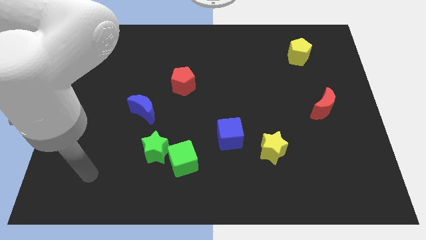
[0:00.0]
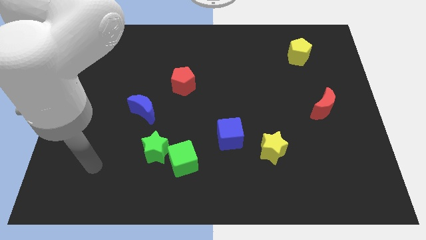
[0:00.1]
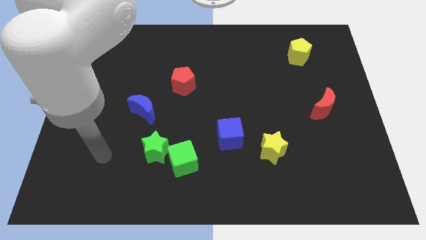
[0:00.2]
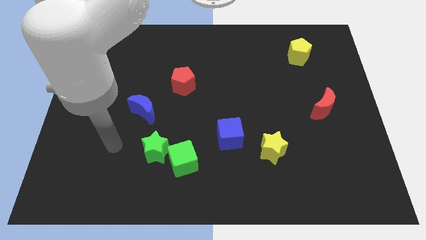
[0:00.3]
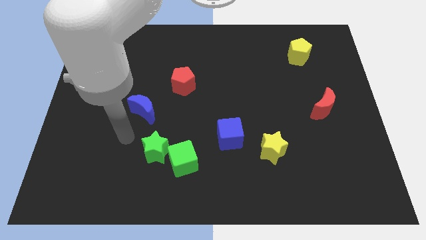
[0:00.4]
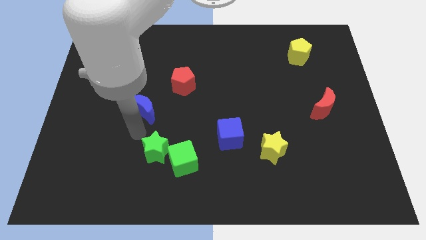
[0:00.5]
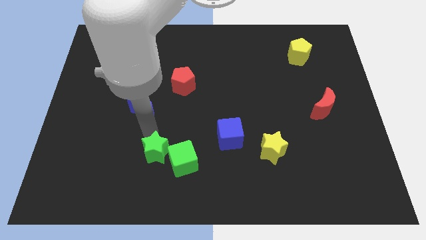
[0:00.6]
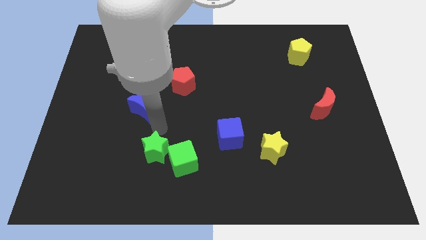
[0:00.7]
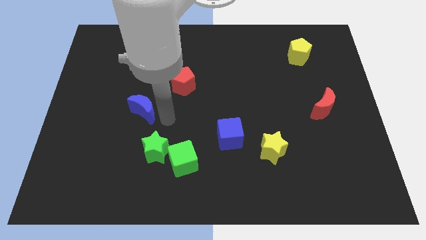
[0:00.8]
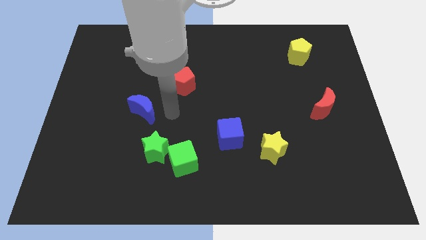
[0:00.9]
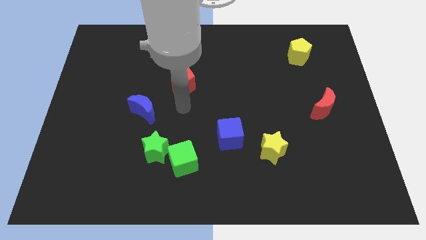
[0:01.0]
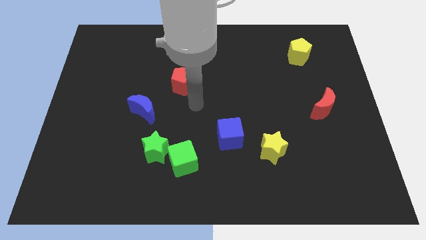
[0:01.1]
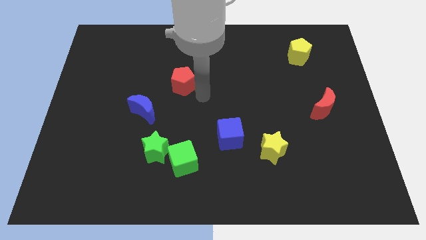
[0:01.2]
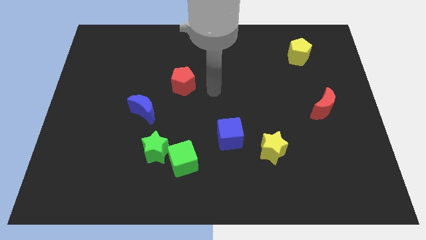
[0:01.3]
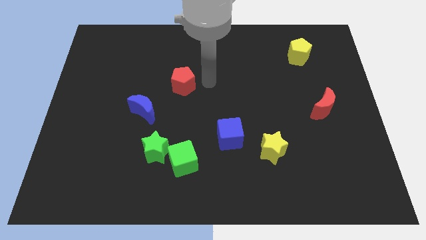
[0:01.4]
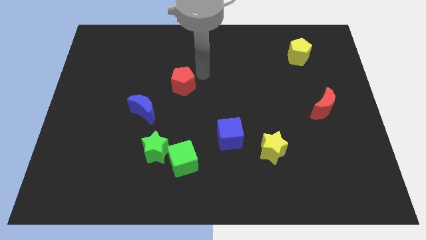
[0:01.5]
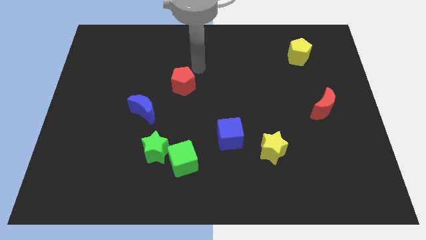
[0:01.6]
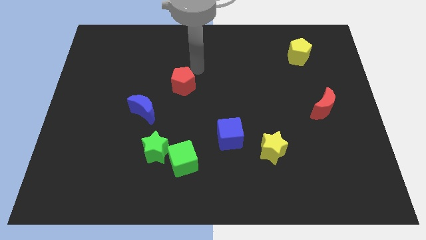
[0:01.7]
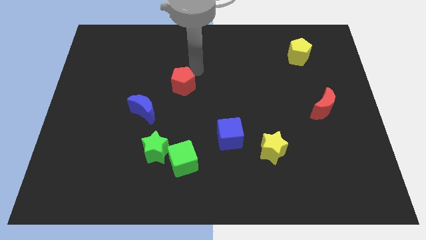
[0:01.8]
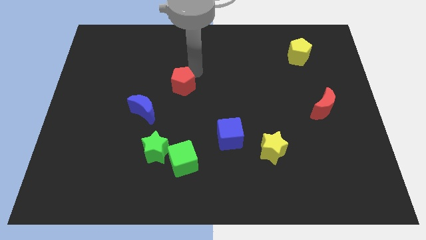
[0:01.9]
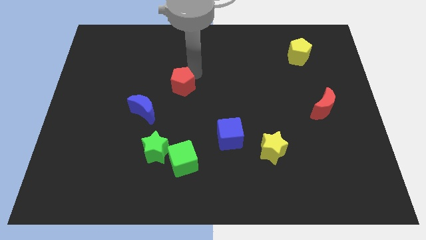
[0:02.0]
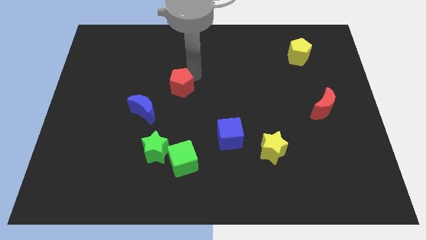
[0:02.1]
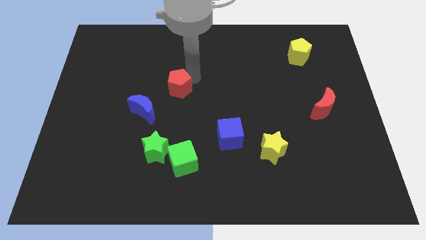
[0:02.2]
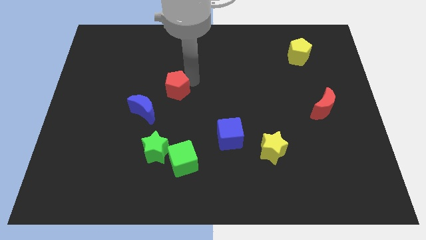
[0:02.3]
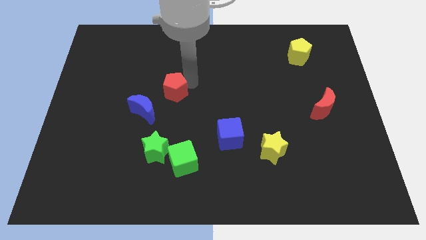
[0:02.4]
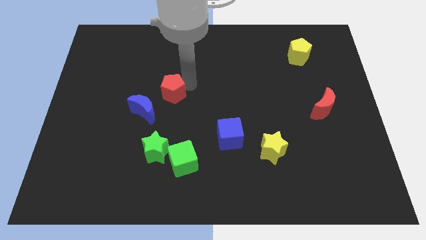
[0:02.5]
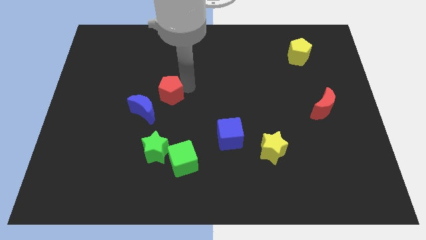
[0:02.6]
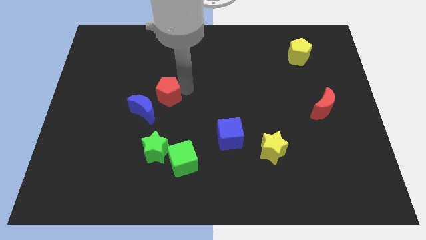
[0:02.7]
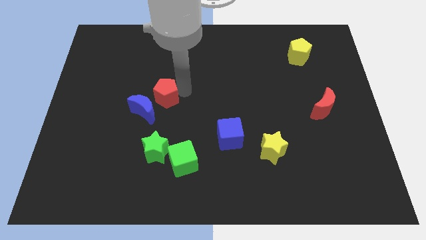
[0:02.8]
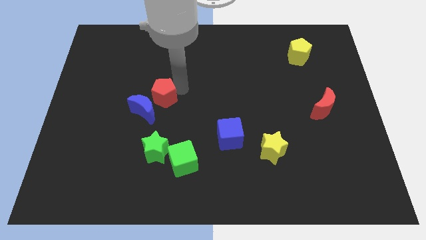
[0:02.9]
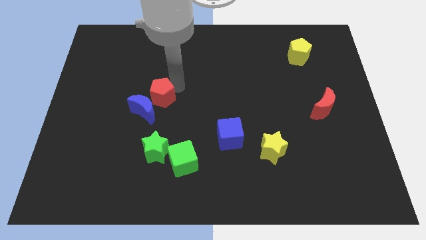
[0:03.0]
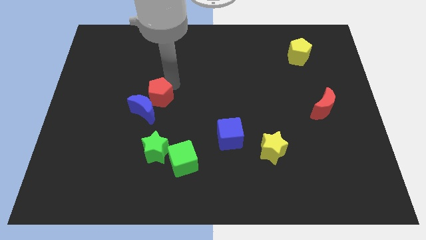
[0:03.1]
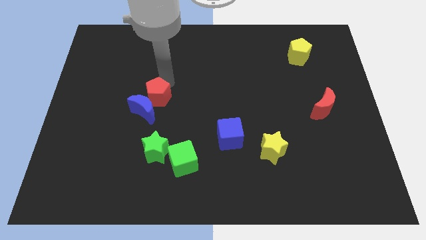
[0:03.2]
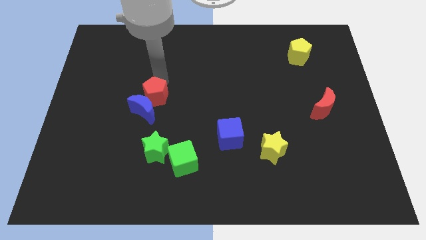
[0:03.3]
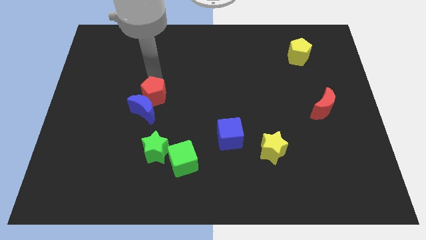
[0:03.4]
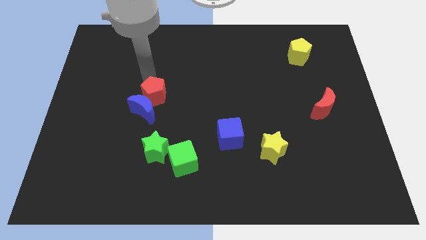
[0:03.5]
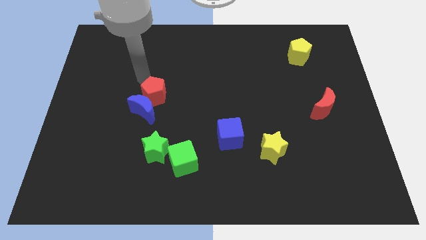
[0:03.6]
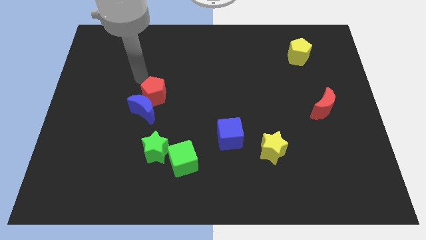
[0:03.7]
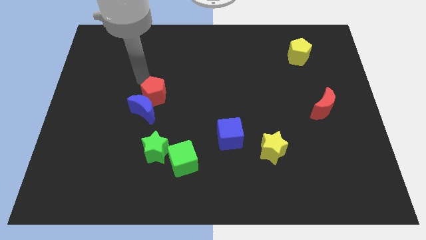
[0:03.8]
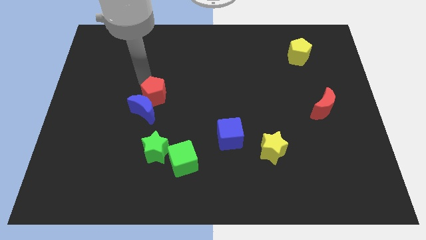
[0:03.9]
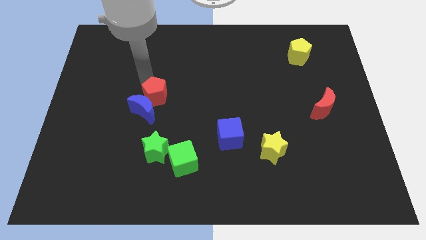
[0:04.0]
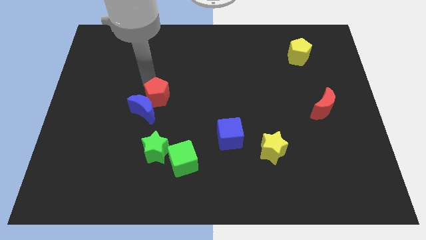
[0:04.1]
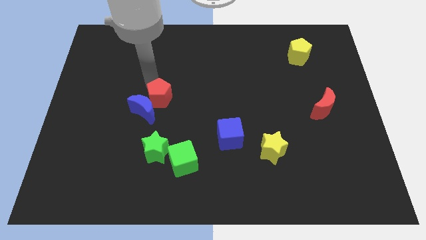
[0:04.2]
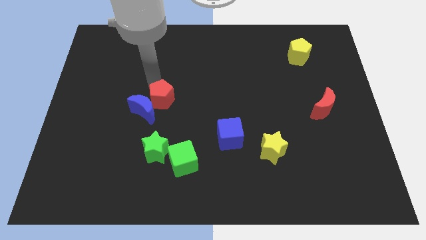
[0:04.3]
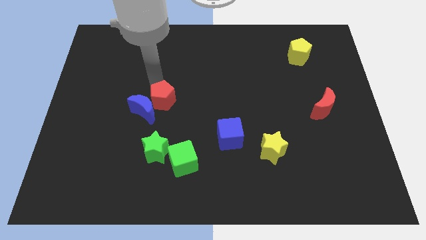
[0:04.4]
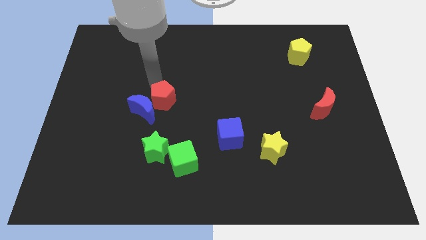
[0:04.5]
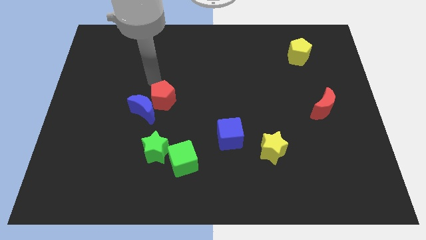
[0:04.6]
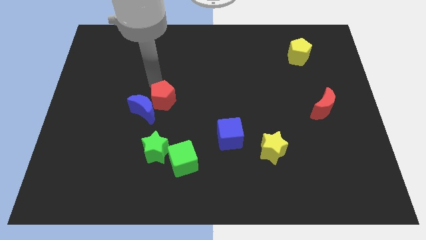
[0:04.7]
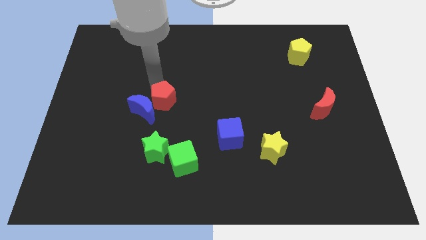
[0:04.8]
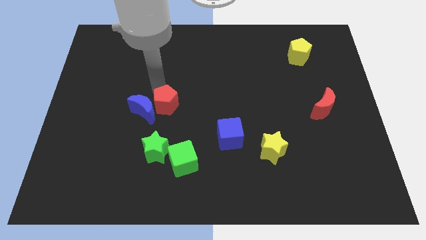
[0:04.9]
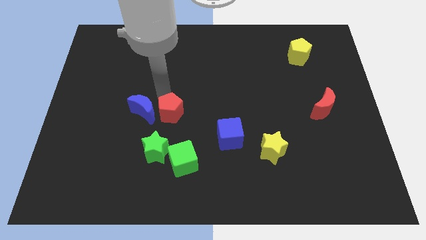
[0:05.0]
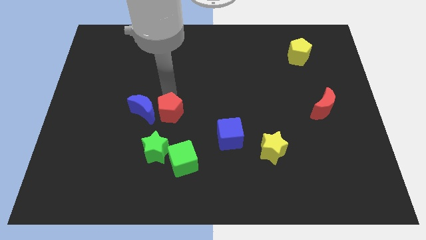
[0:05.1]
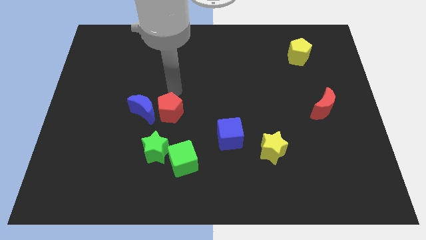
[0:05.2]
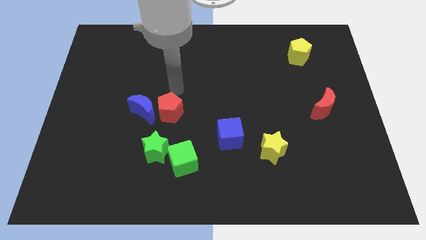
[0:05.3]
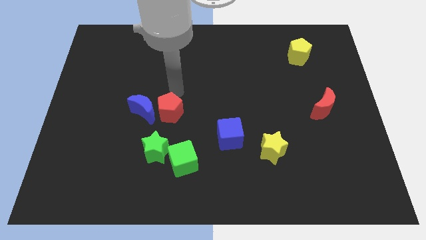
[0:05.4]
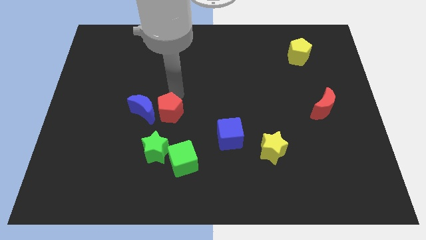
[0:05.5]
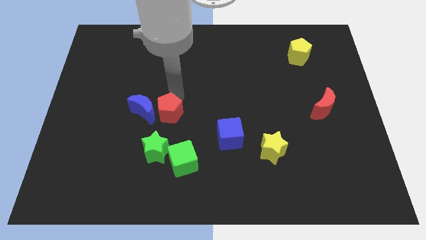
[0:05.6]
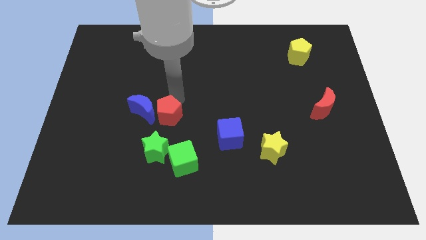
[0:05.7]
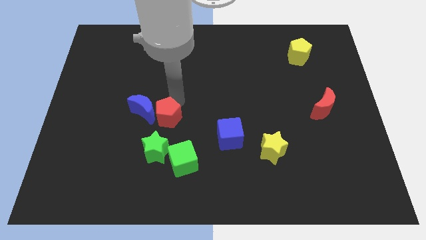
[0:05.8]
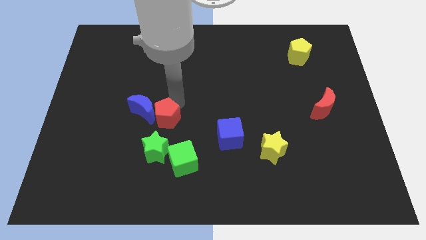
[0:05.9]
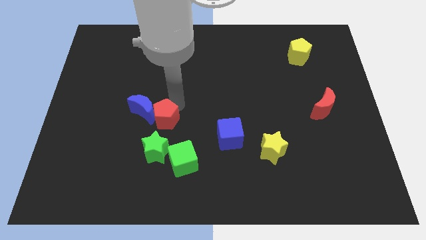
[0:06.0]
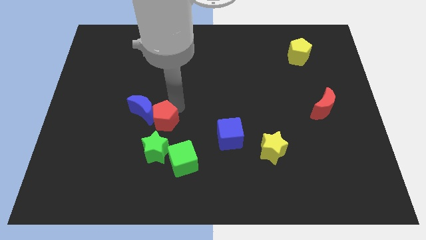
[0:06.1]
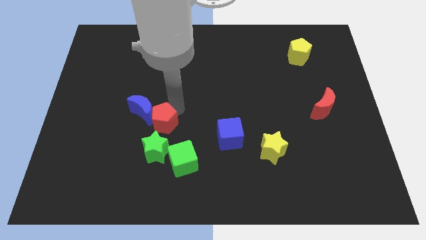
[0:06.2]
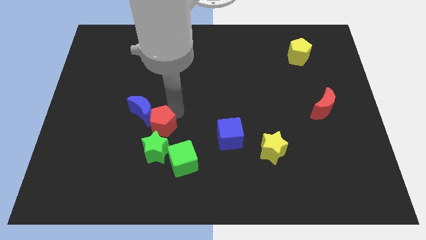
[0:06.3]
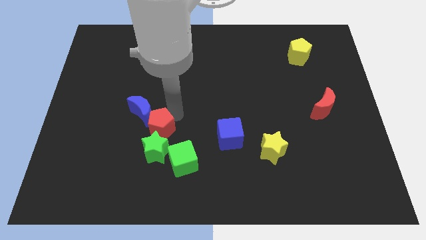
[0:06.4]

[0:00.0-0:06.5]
put the red pentagon next to the green star

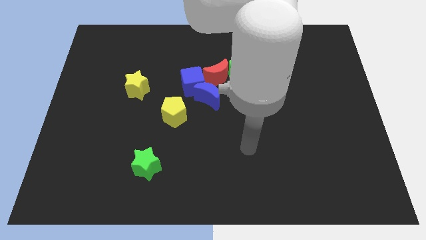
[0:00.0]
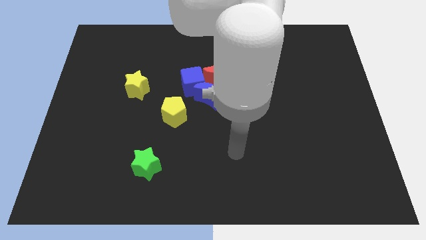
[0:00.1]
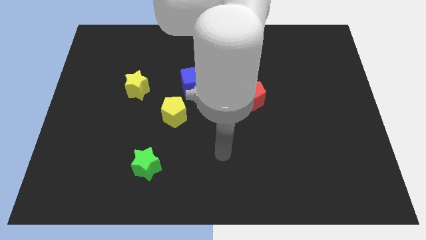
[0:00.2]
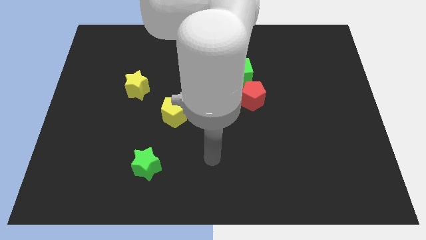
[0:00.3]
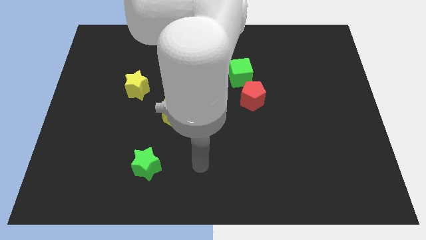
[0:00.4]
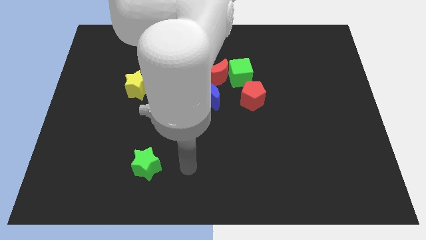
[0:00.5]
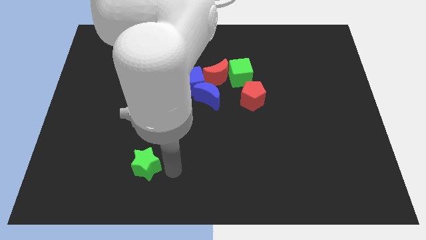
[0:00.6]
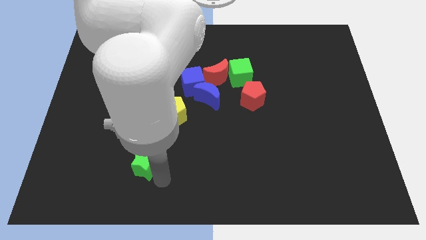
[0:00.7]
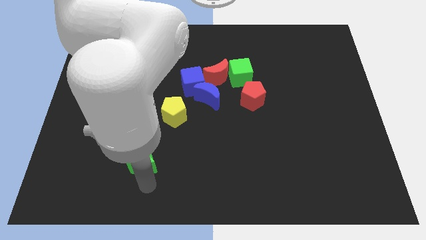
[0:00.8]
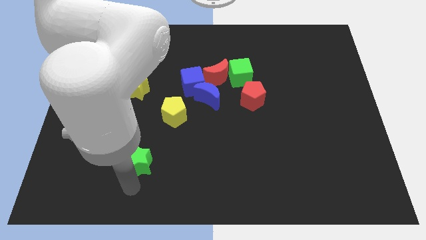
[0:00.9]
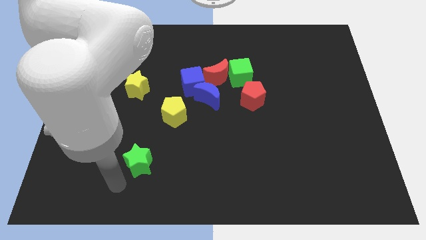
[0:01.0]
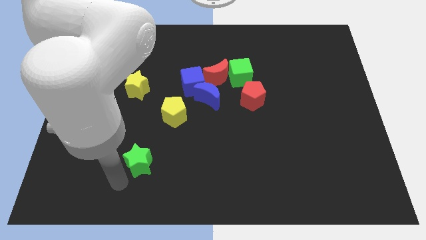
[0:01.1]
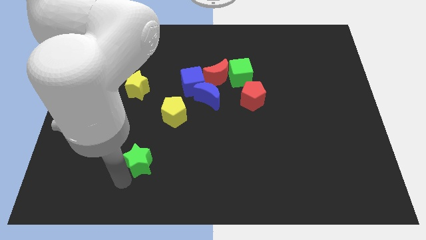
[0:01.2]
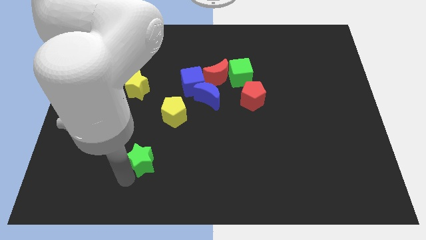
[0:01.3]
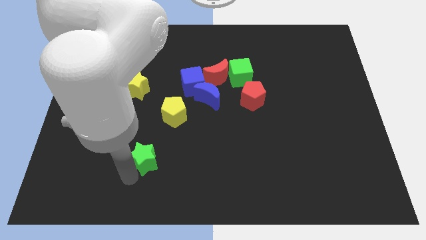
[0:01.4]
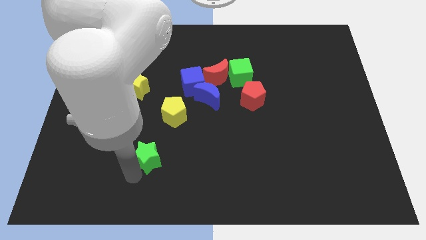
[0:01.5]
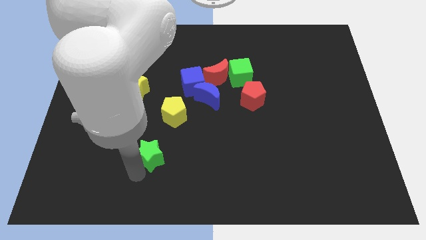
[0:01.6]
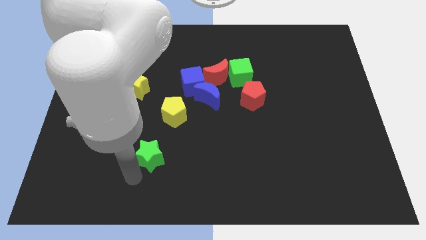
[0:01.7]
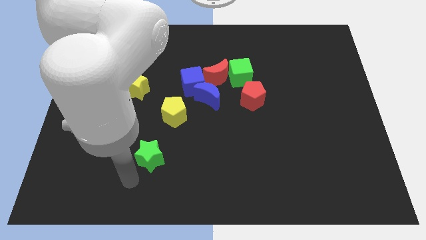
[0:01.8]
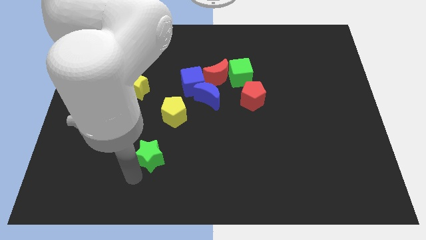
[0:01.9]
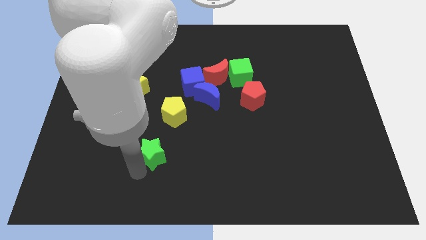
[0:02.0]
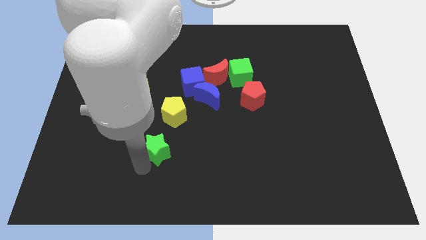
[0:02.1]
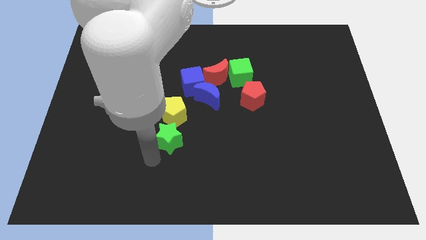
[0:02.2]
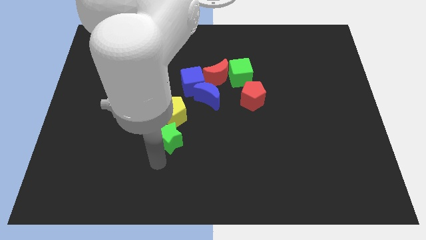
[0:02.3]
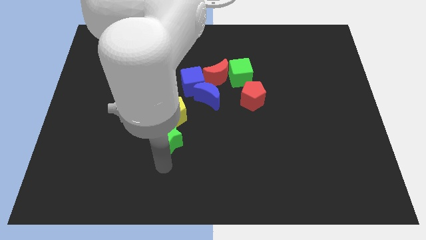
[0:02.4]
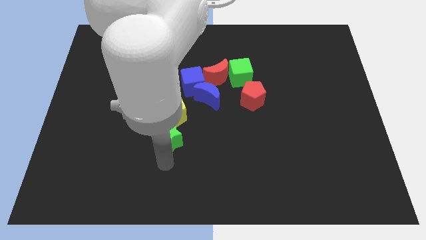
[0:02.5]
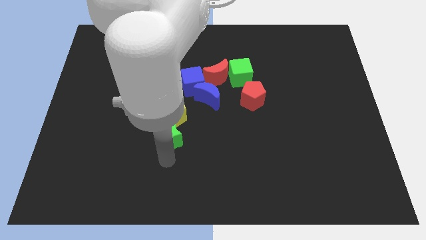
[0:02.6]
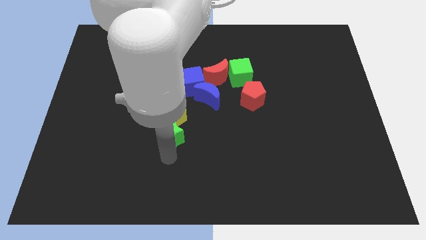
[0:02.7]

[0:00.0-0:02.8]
move the green star next to the yellow pentagon
